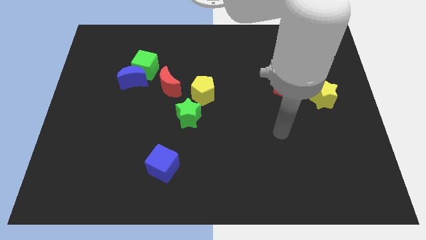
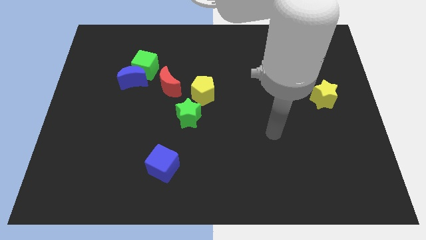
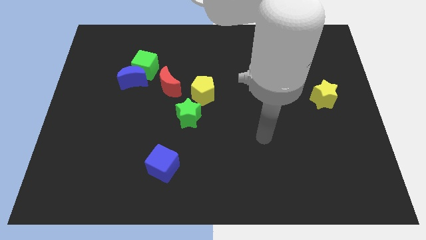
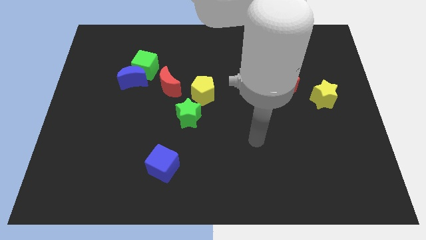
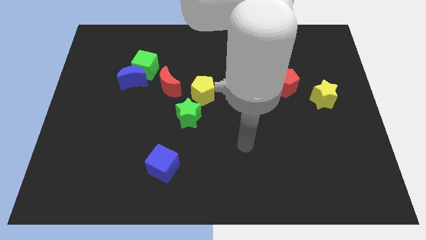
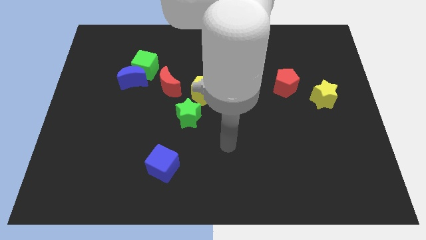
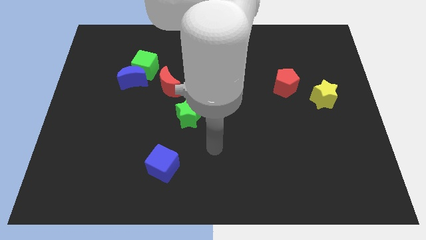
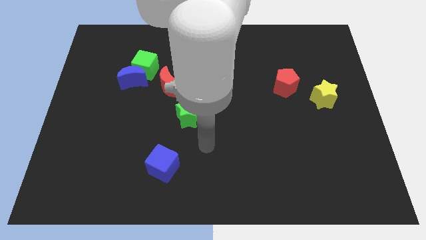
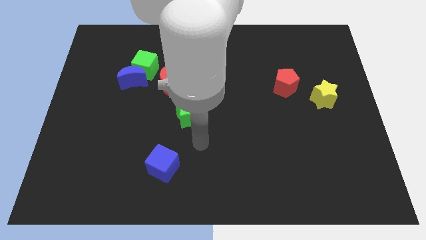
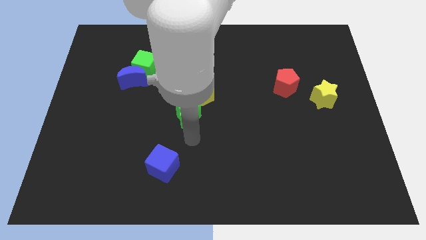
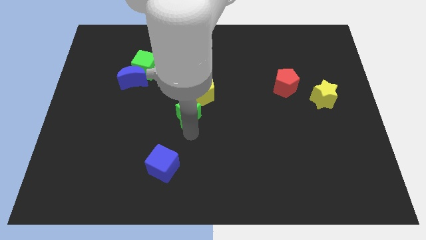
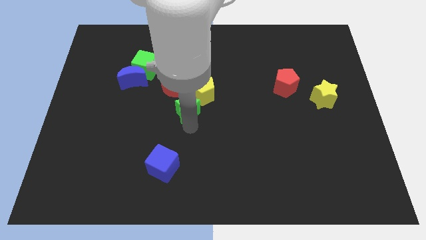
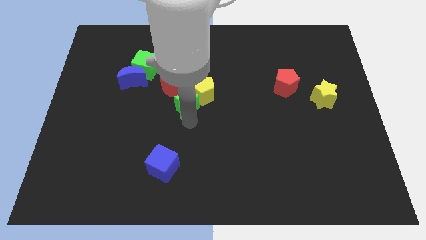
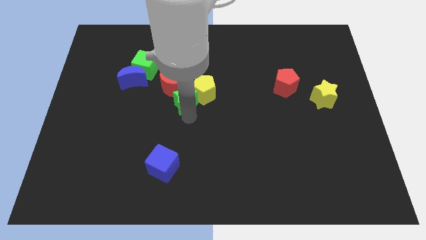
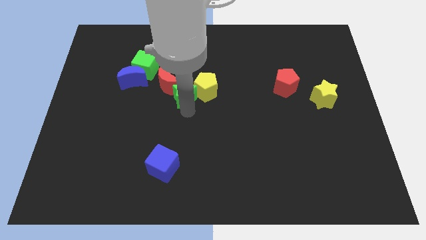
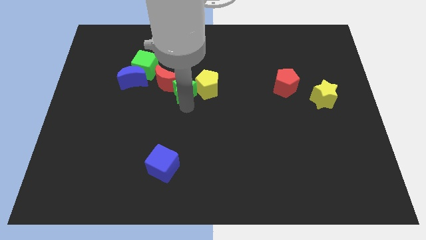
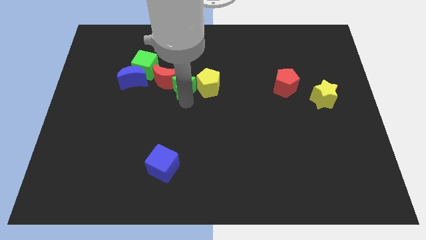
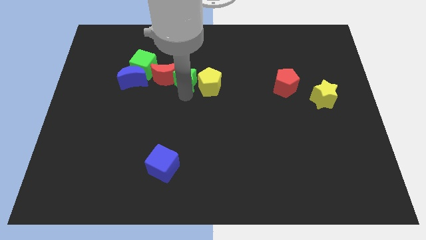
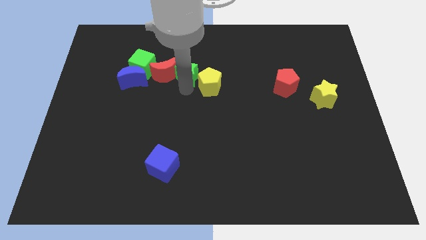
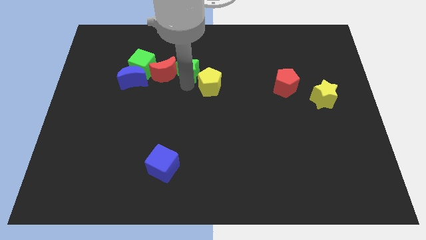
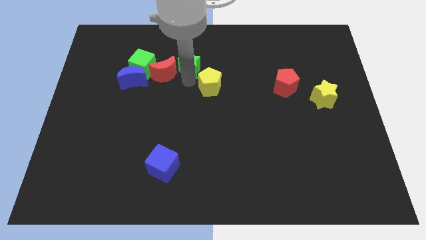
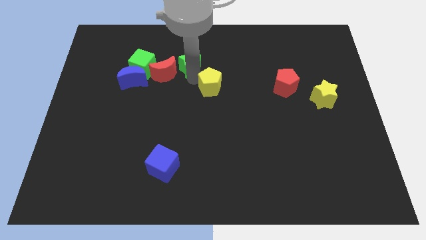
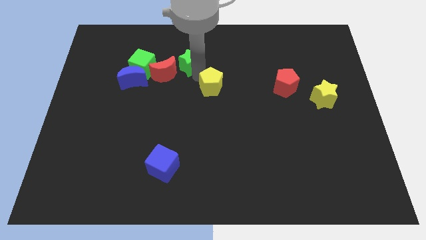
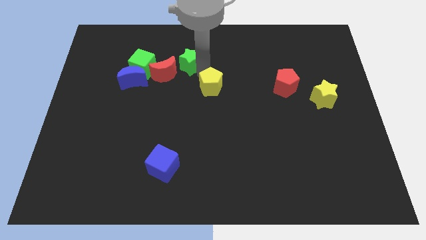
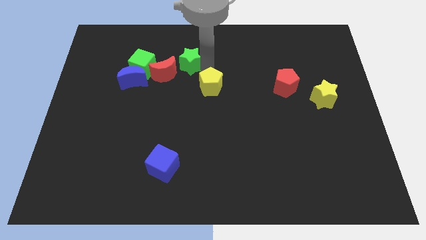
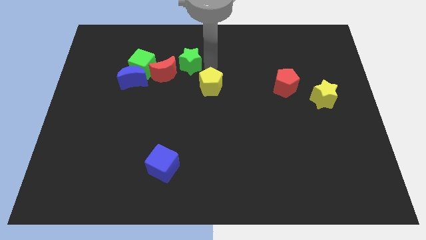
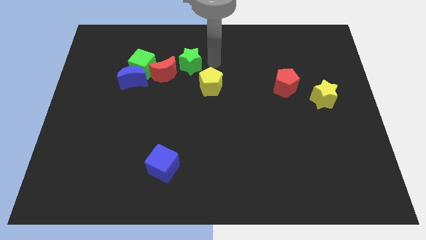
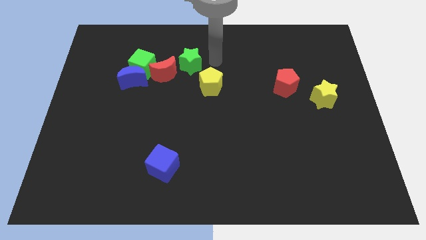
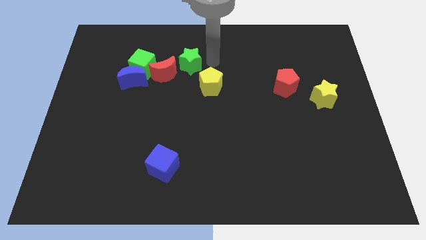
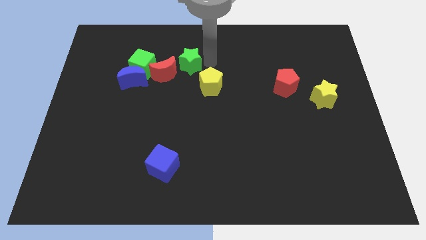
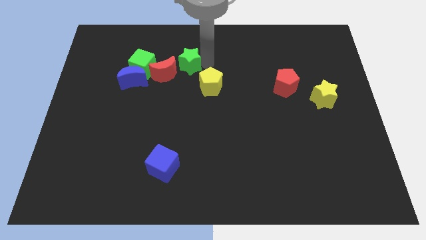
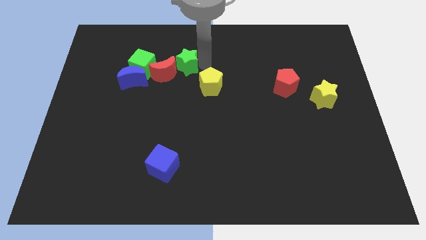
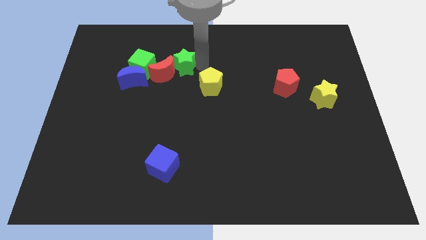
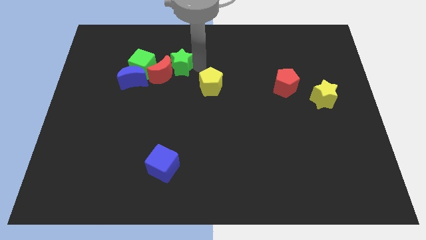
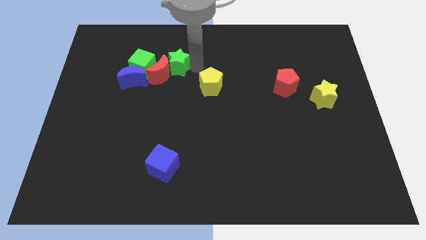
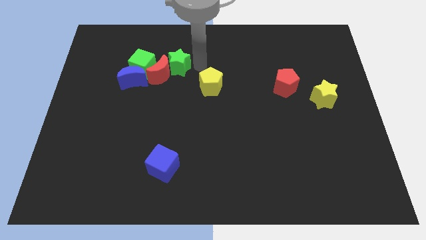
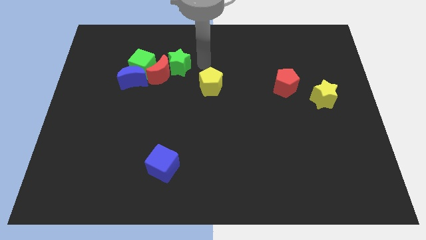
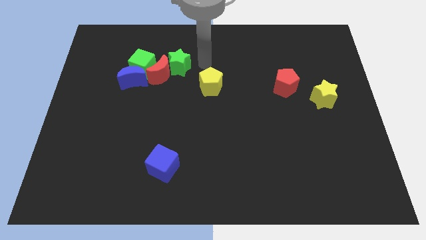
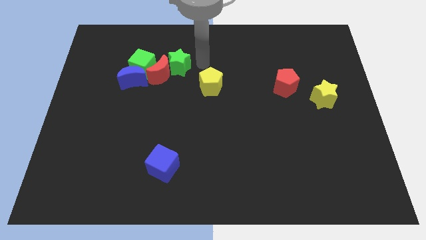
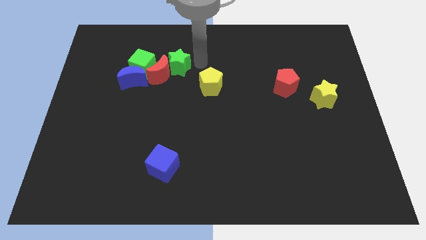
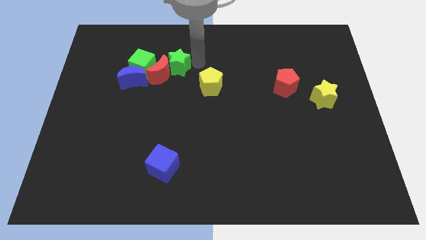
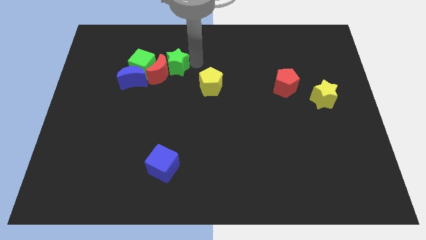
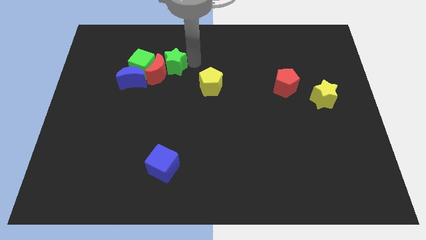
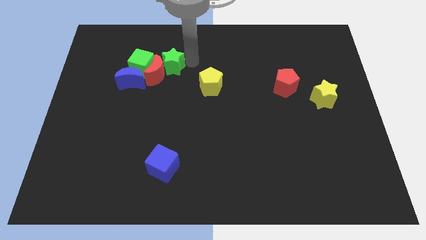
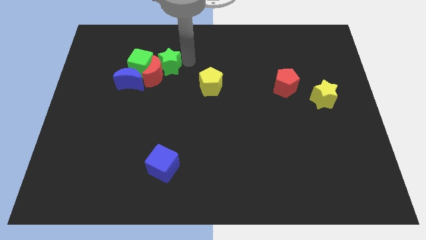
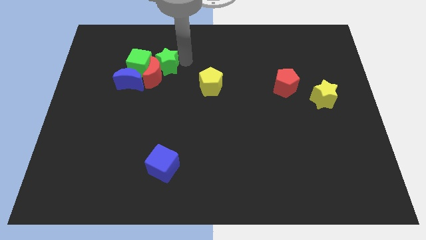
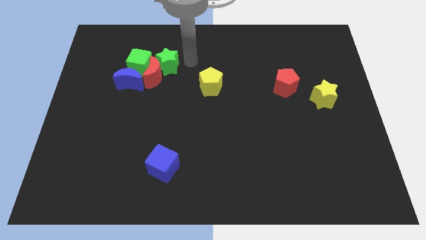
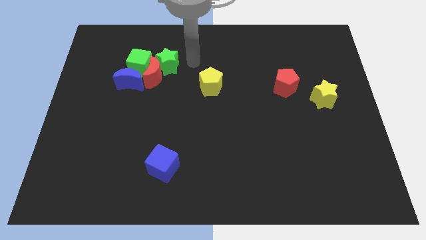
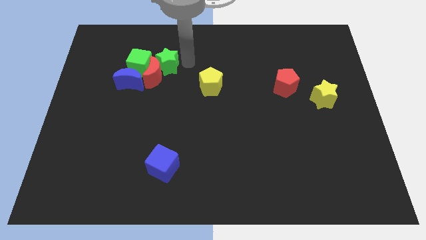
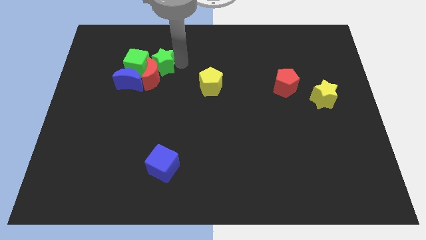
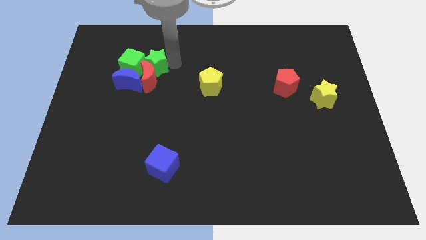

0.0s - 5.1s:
push the green star to the green cube

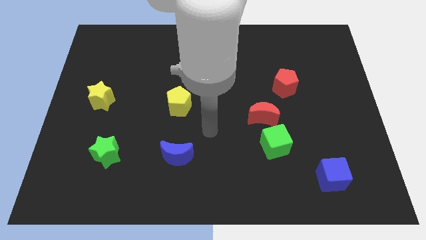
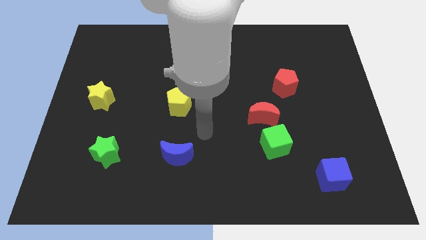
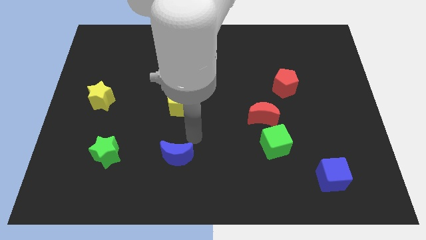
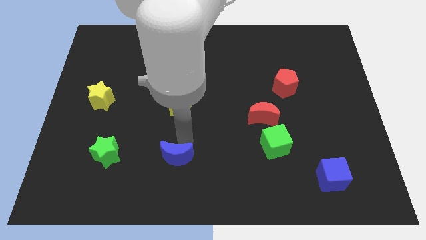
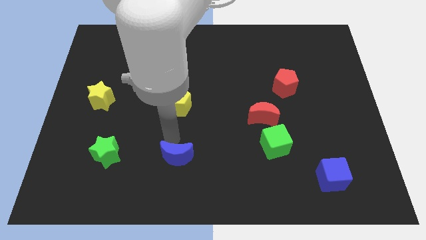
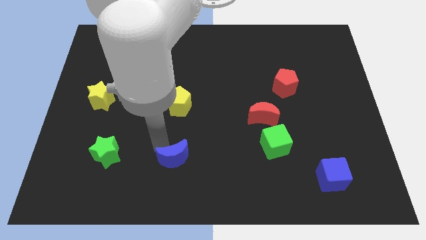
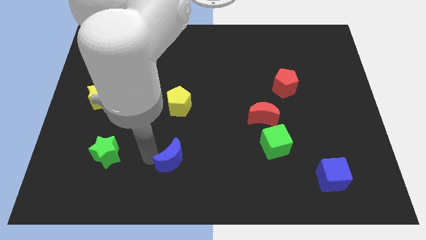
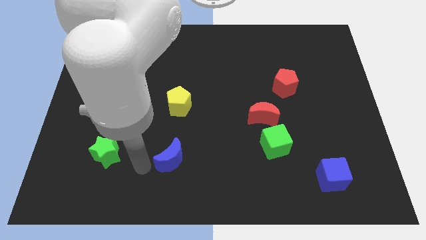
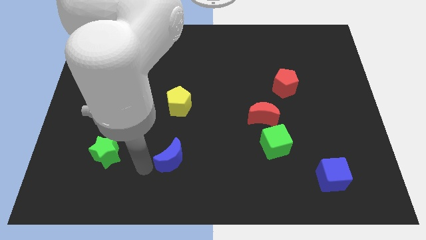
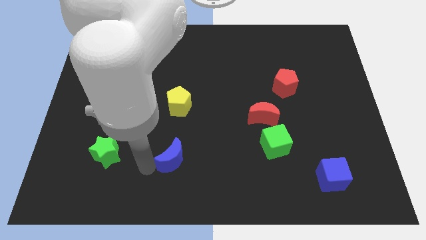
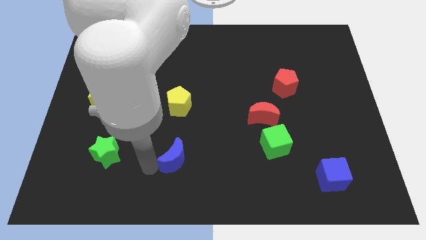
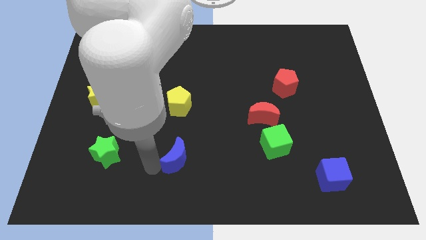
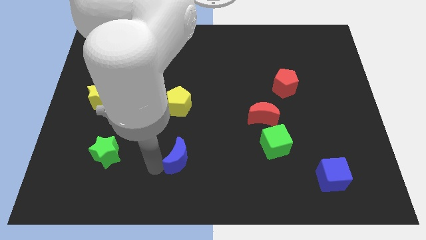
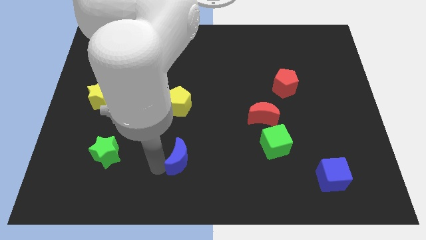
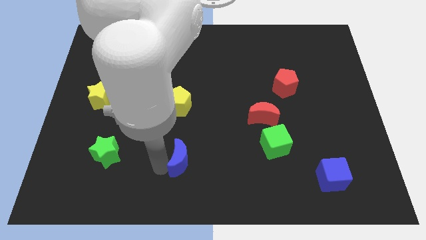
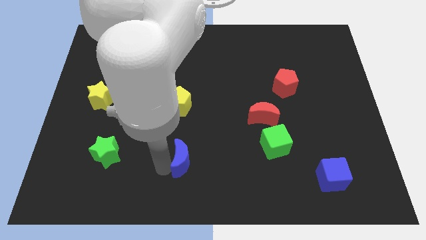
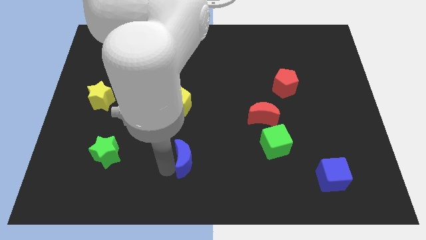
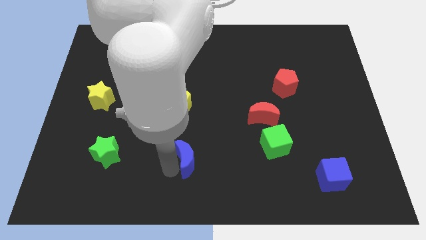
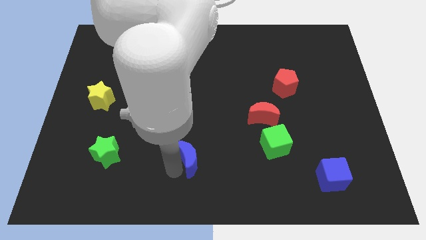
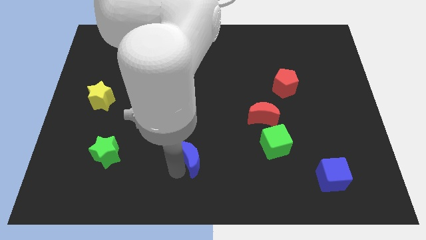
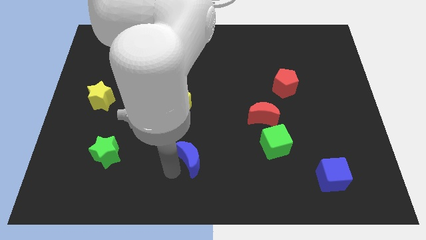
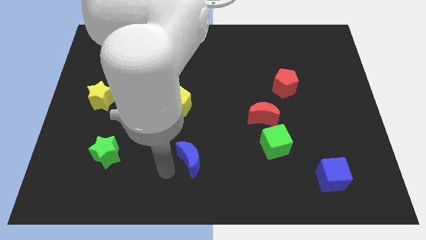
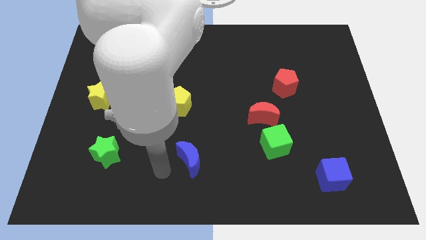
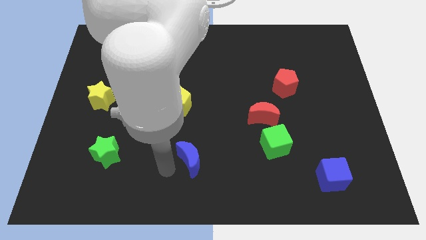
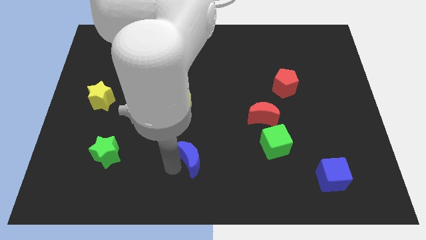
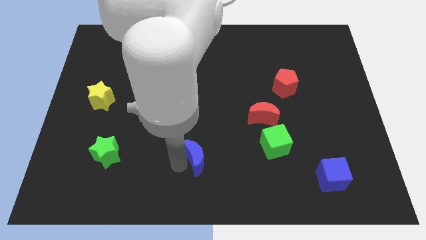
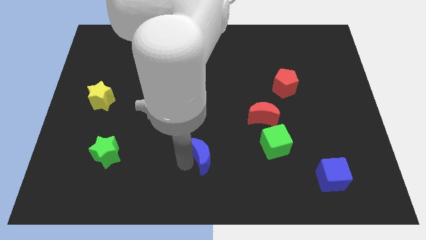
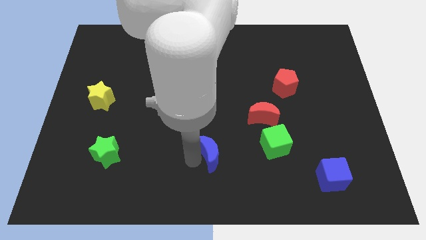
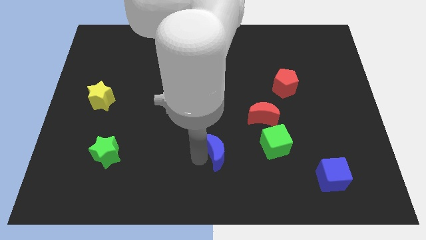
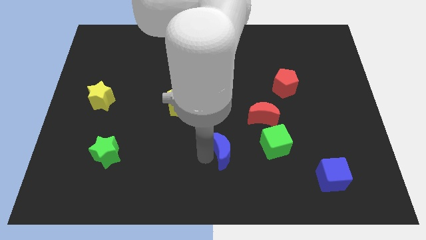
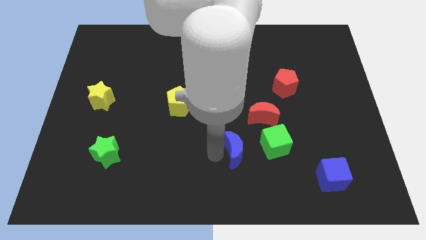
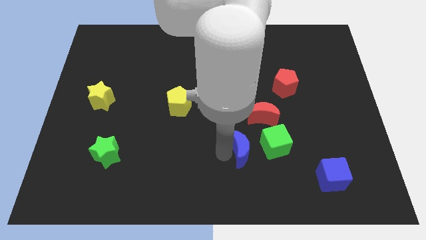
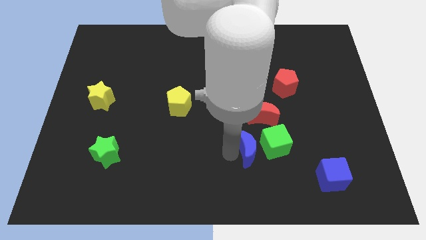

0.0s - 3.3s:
put the blue moon to the green cube
